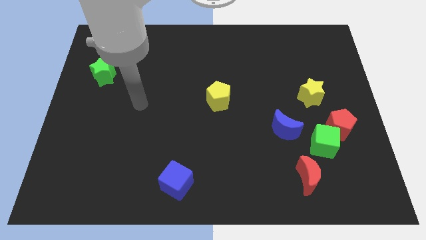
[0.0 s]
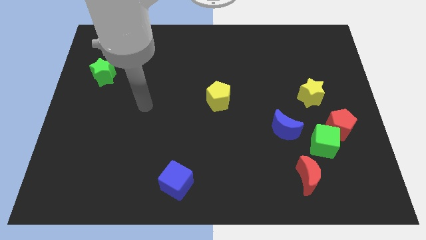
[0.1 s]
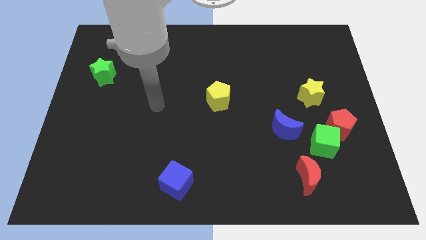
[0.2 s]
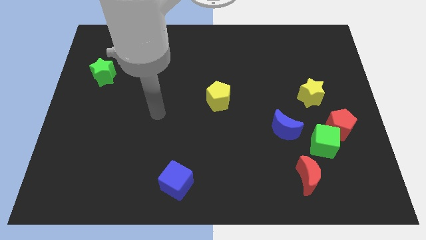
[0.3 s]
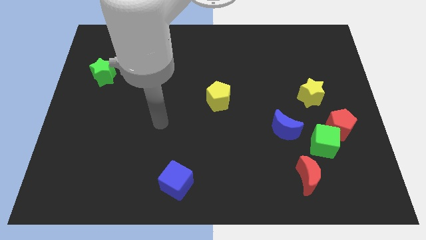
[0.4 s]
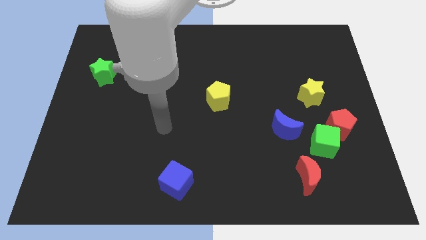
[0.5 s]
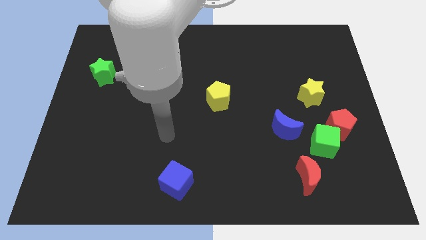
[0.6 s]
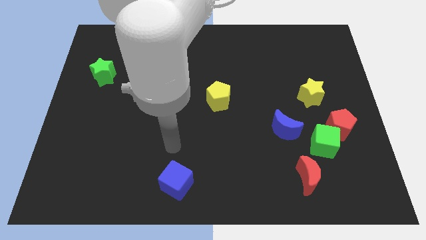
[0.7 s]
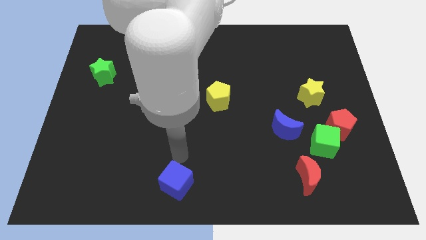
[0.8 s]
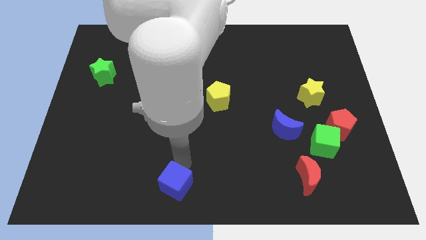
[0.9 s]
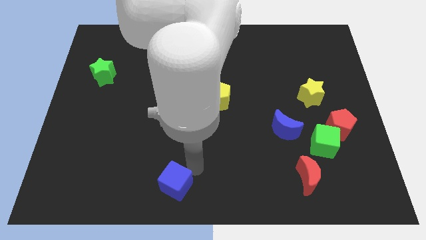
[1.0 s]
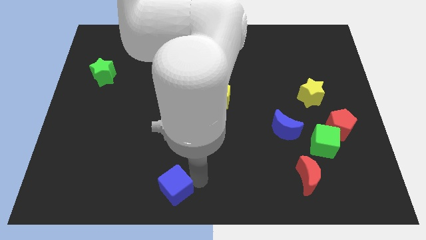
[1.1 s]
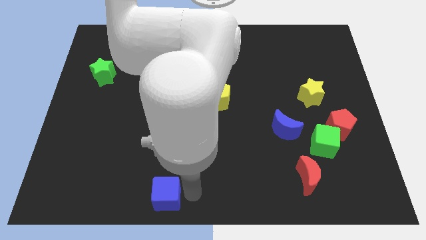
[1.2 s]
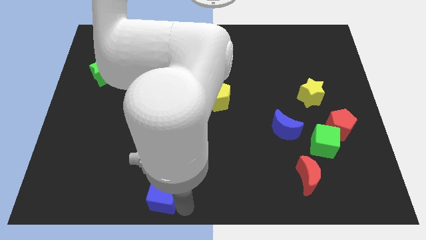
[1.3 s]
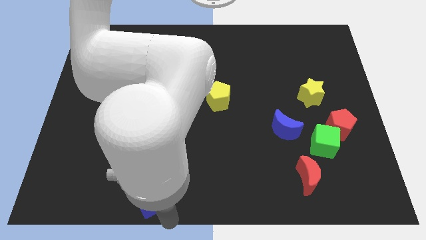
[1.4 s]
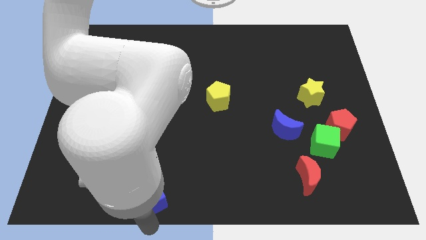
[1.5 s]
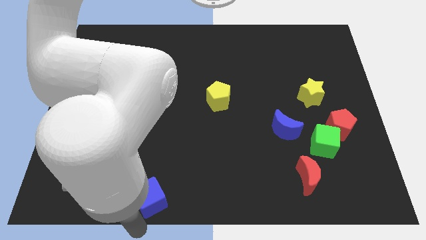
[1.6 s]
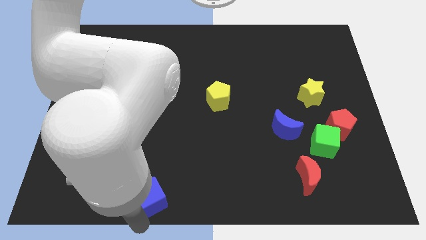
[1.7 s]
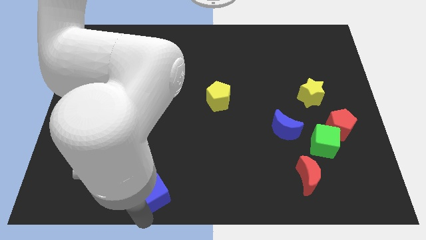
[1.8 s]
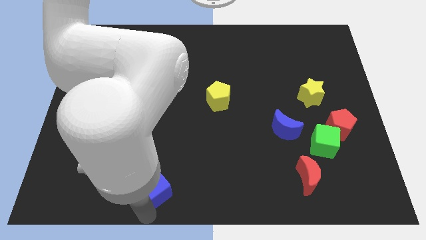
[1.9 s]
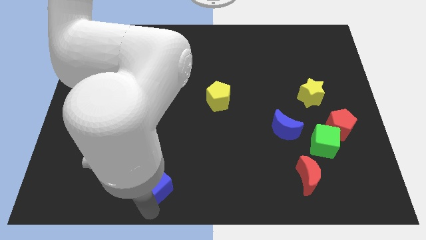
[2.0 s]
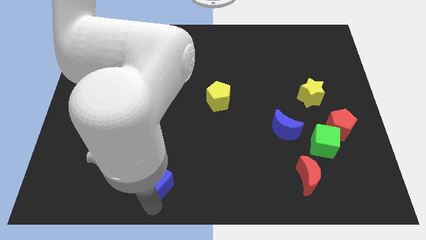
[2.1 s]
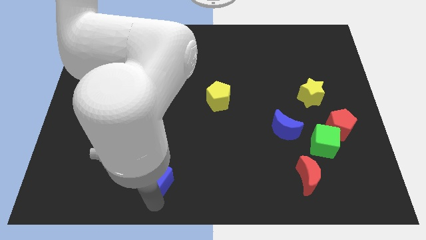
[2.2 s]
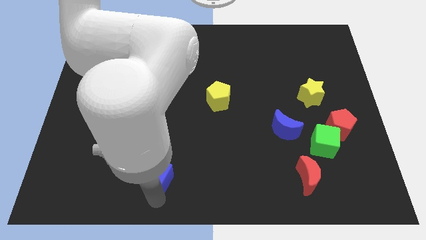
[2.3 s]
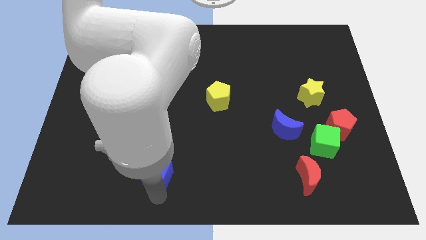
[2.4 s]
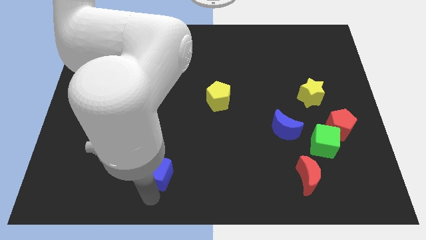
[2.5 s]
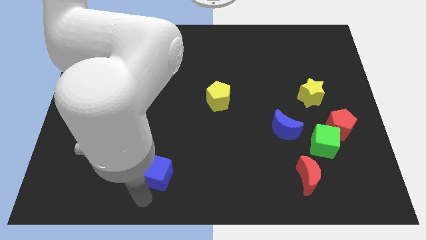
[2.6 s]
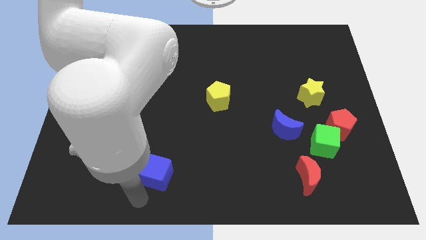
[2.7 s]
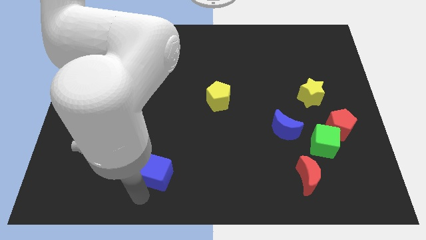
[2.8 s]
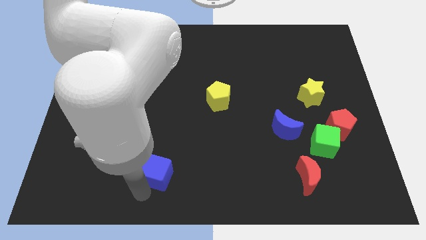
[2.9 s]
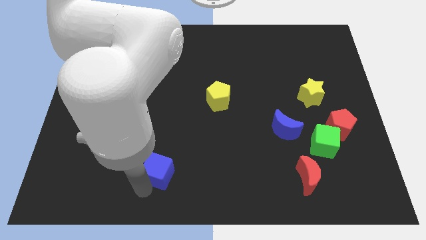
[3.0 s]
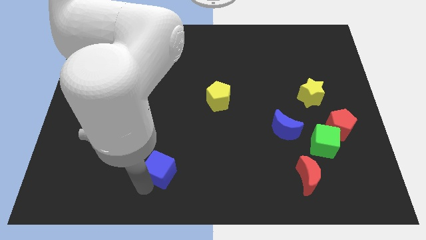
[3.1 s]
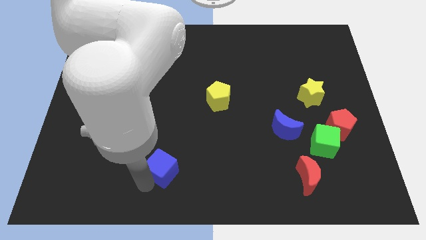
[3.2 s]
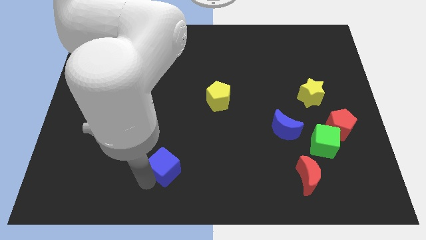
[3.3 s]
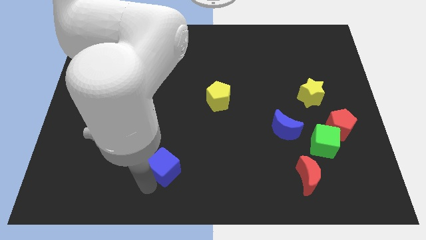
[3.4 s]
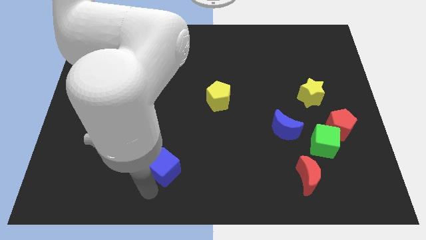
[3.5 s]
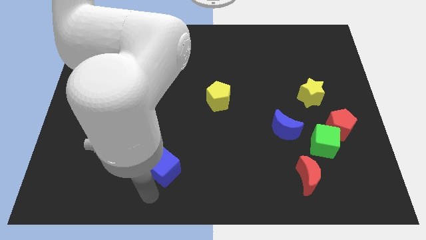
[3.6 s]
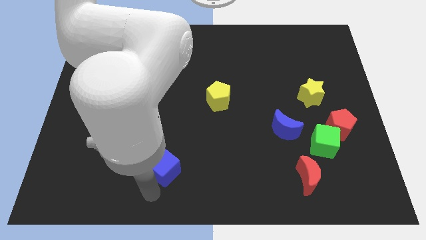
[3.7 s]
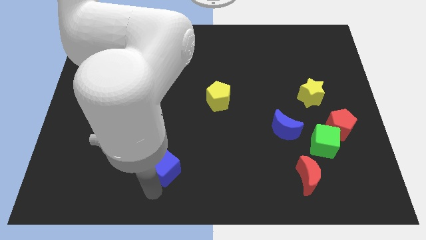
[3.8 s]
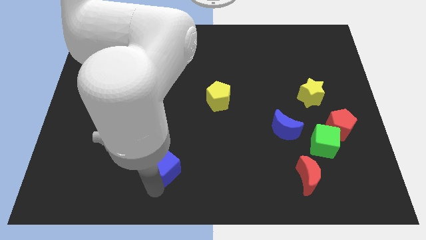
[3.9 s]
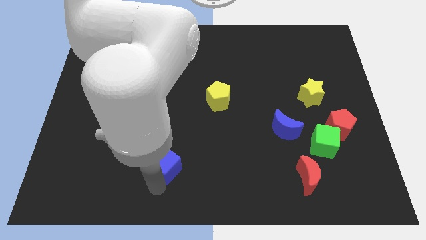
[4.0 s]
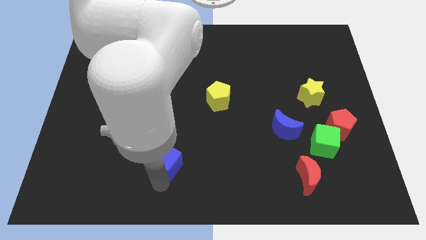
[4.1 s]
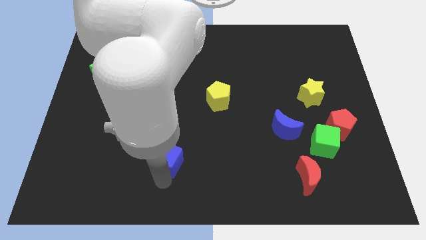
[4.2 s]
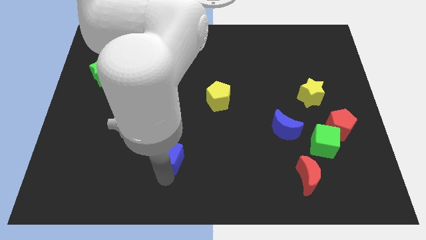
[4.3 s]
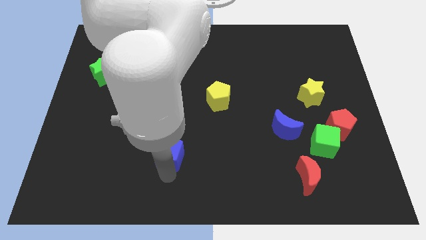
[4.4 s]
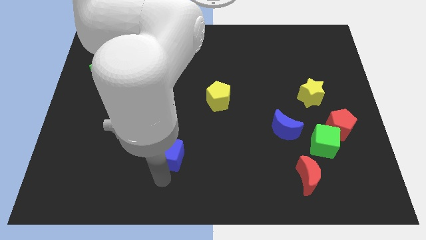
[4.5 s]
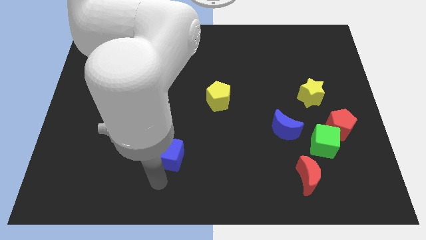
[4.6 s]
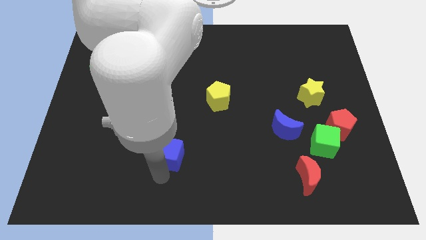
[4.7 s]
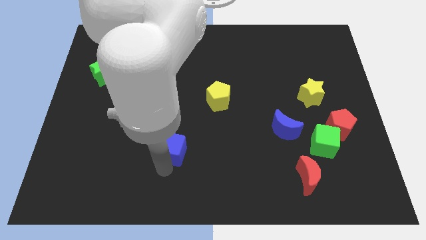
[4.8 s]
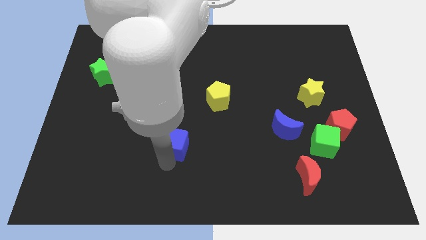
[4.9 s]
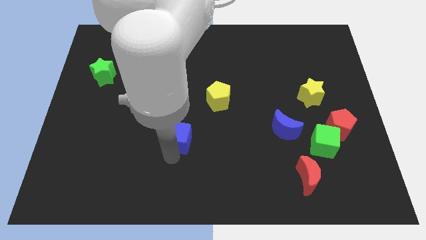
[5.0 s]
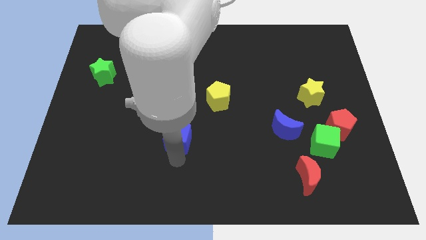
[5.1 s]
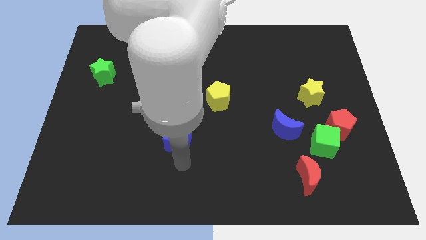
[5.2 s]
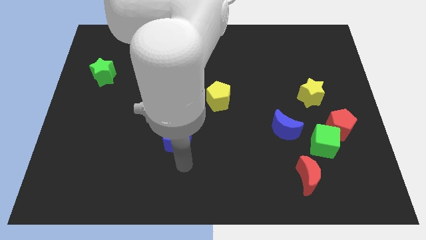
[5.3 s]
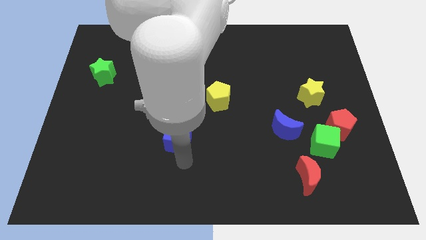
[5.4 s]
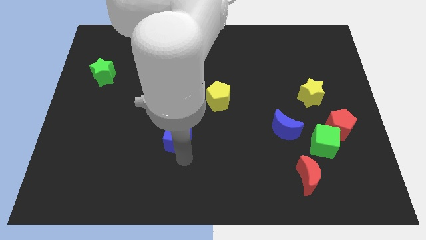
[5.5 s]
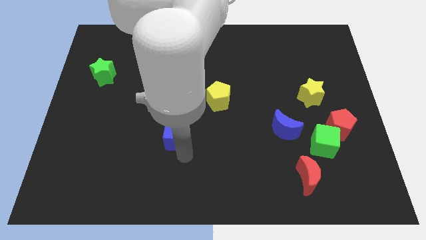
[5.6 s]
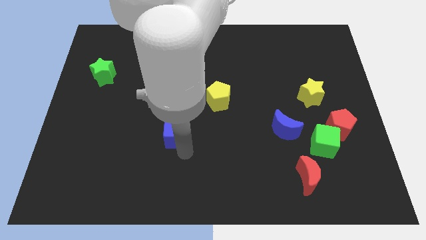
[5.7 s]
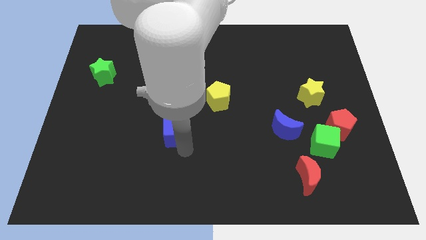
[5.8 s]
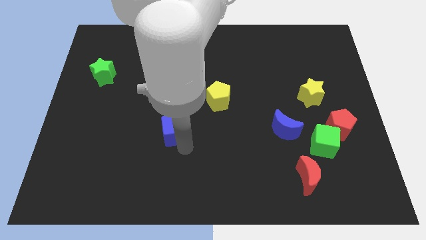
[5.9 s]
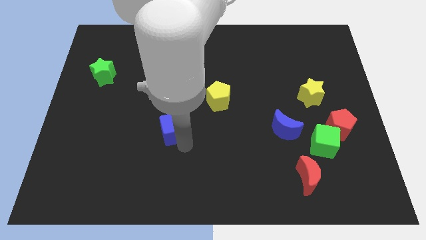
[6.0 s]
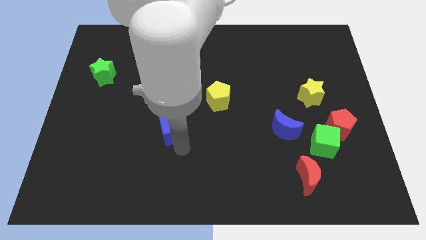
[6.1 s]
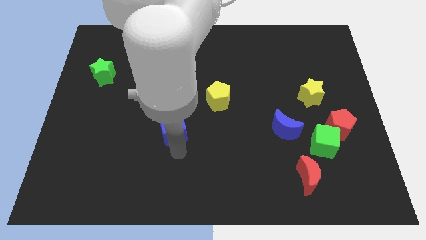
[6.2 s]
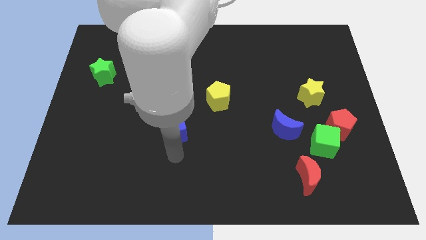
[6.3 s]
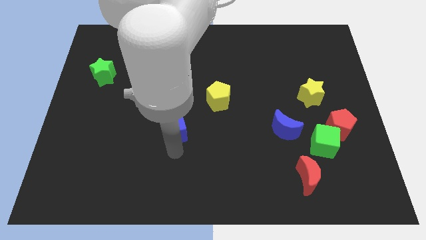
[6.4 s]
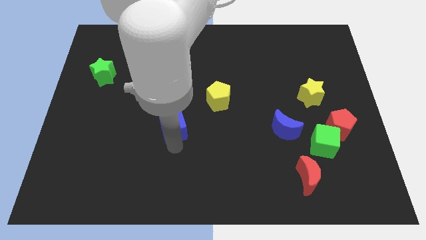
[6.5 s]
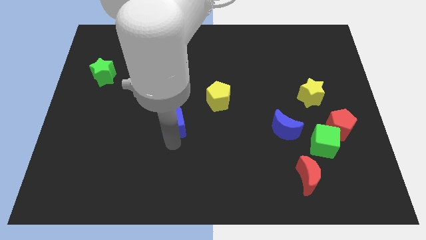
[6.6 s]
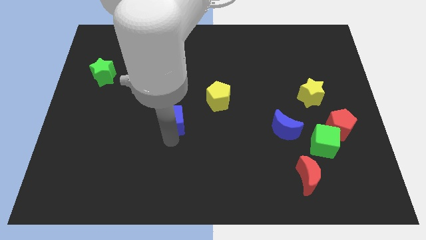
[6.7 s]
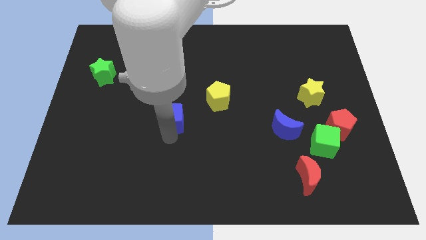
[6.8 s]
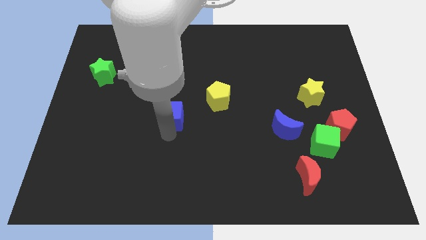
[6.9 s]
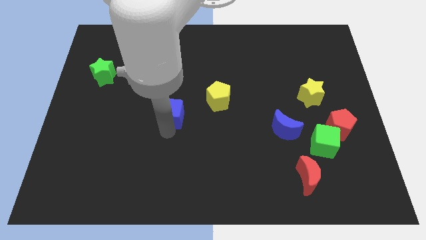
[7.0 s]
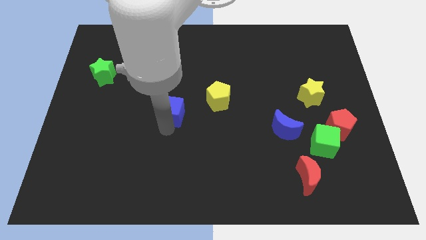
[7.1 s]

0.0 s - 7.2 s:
slide the blue cube just left of the yellow pentagon
